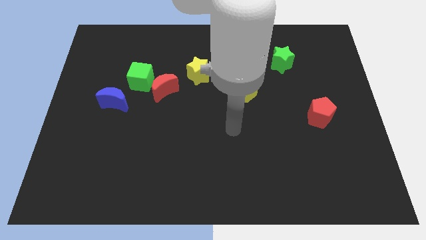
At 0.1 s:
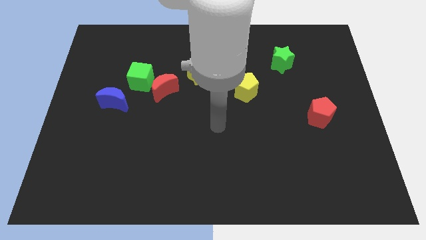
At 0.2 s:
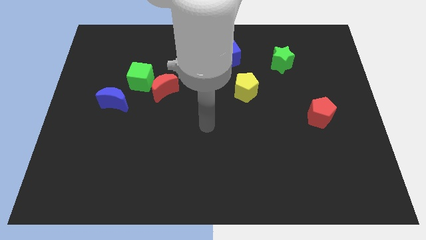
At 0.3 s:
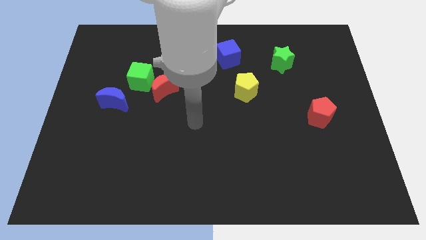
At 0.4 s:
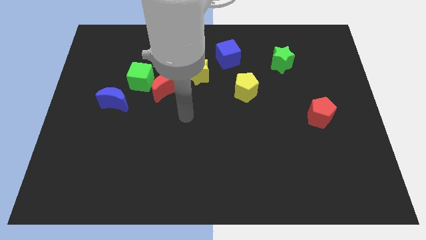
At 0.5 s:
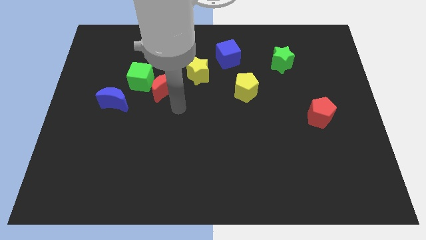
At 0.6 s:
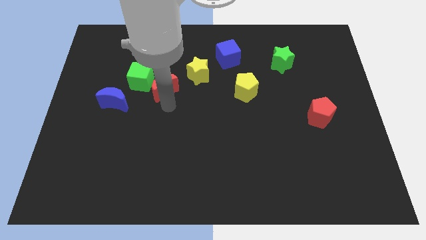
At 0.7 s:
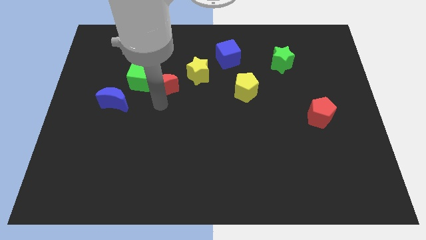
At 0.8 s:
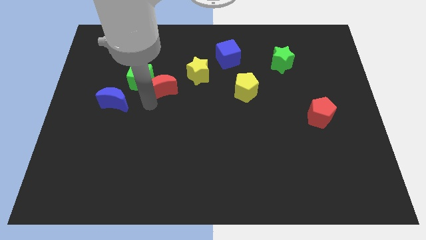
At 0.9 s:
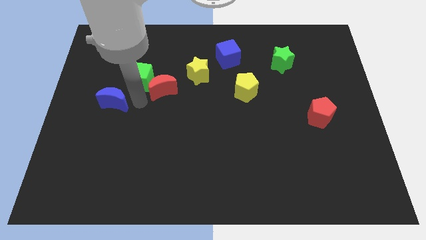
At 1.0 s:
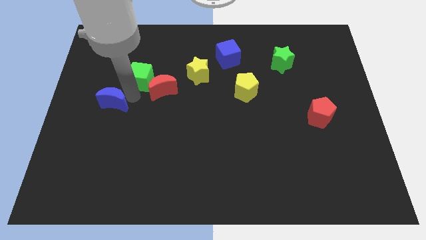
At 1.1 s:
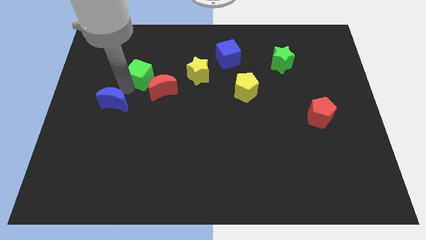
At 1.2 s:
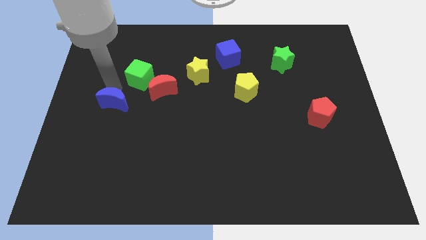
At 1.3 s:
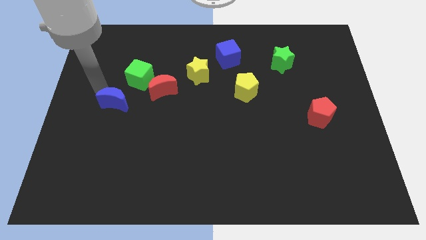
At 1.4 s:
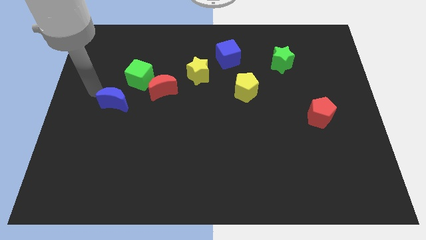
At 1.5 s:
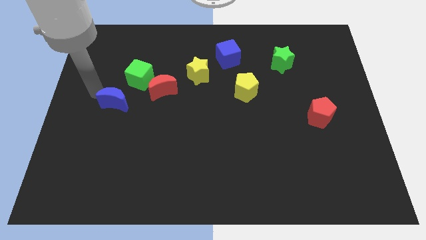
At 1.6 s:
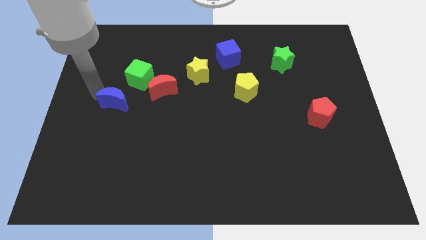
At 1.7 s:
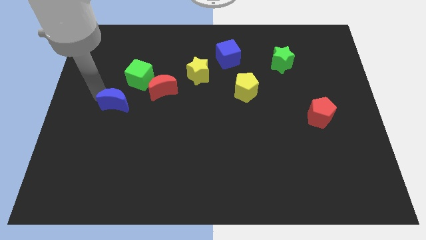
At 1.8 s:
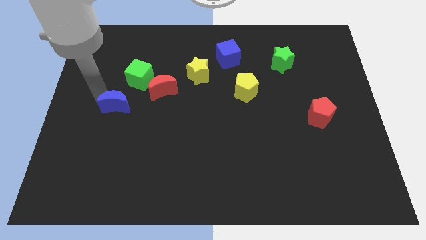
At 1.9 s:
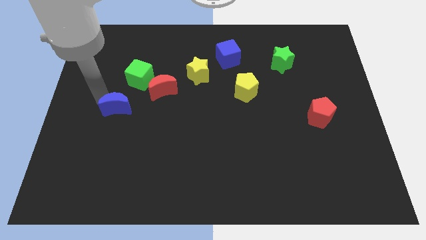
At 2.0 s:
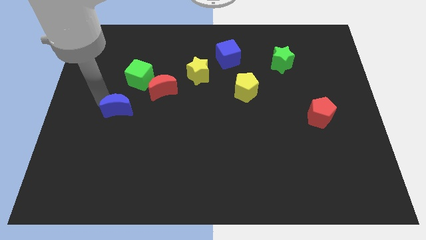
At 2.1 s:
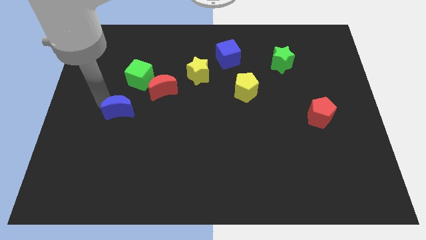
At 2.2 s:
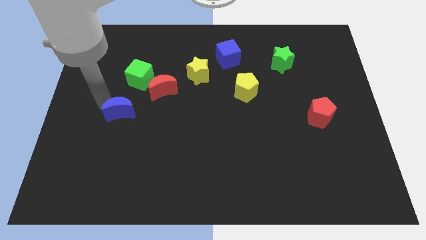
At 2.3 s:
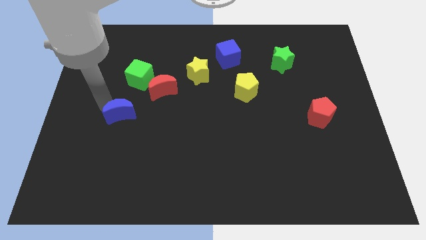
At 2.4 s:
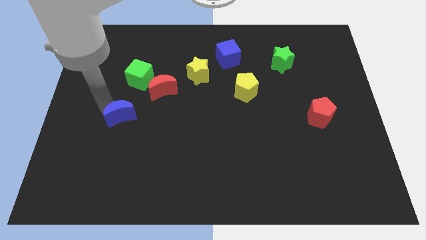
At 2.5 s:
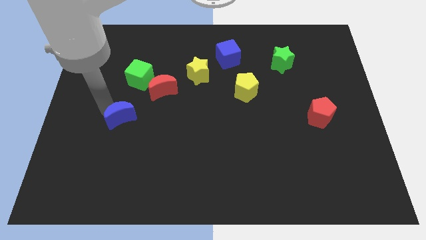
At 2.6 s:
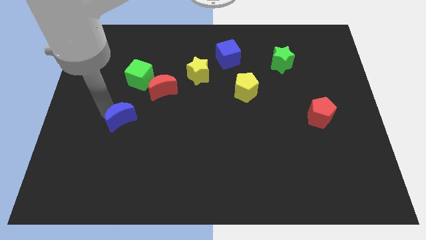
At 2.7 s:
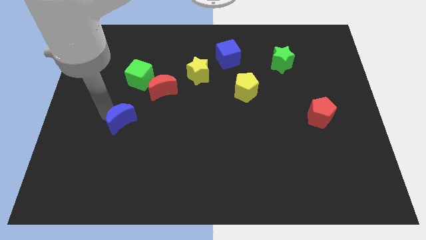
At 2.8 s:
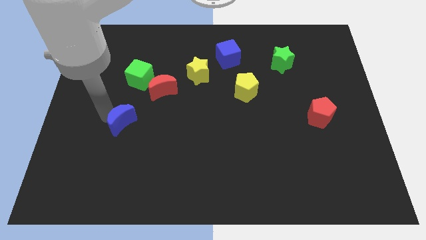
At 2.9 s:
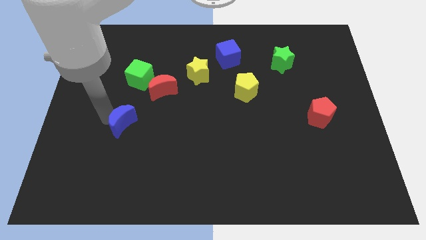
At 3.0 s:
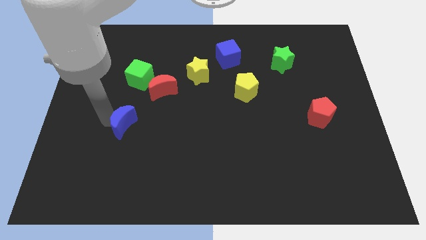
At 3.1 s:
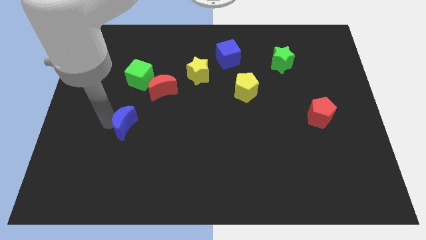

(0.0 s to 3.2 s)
move the blue moon a bit down and to the right

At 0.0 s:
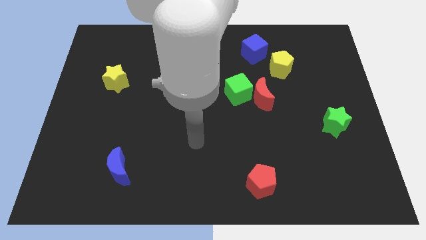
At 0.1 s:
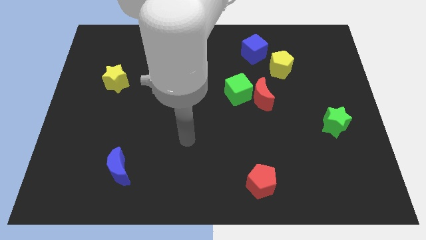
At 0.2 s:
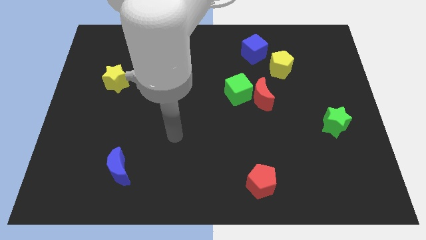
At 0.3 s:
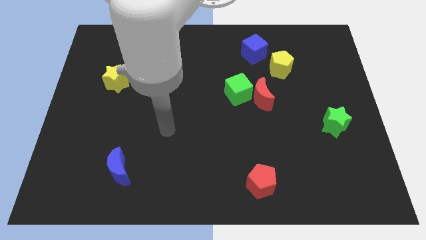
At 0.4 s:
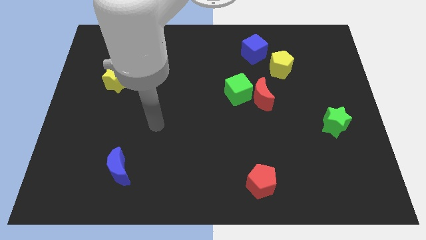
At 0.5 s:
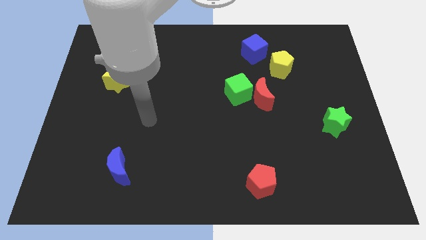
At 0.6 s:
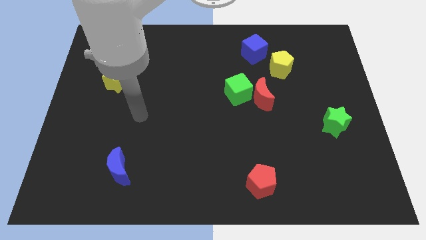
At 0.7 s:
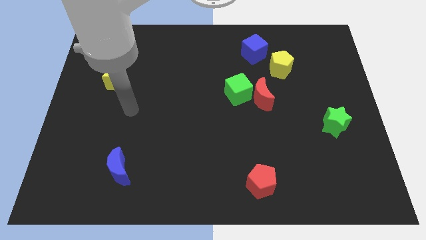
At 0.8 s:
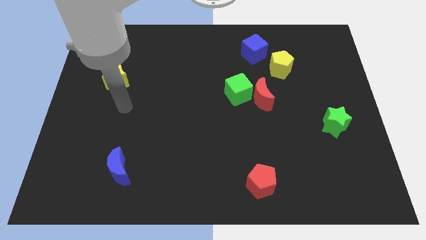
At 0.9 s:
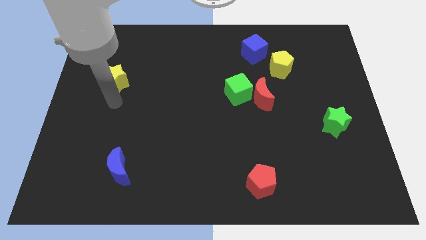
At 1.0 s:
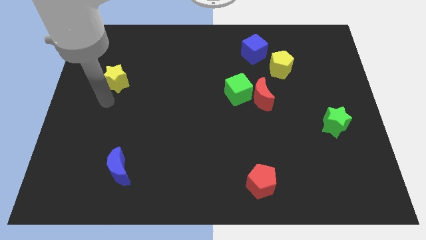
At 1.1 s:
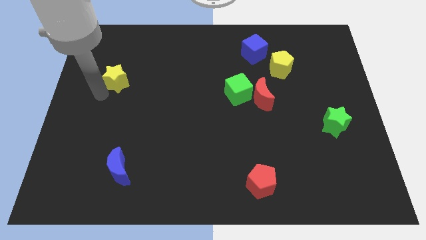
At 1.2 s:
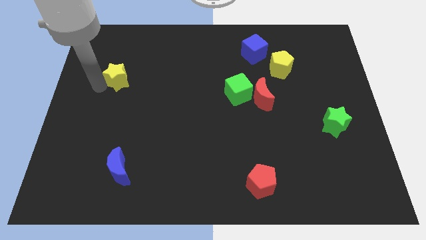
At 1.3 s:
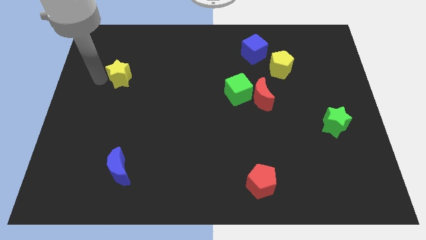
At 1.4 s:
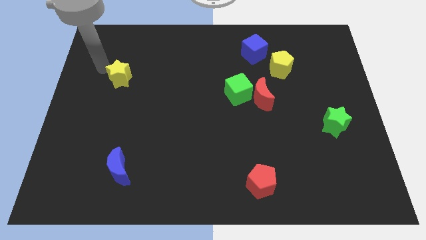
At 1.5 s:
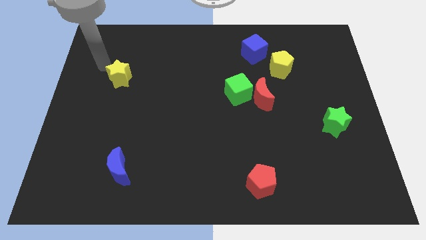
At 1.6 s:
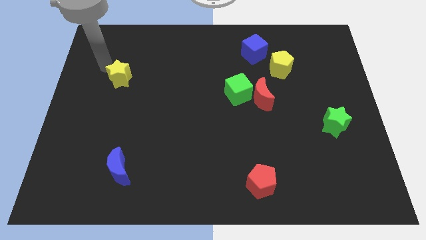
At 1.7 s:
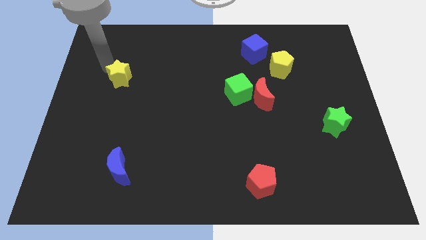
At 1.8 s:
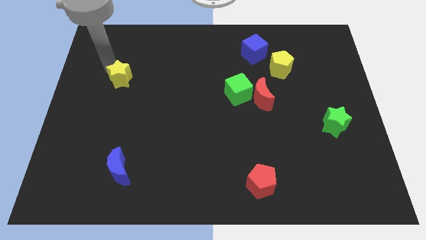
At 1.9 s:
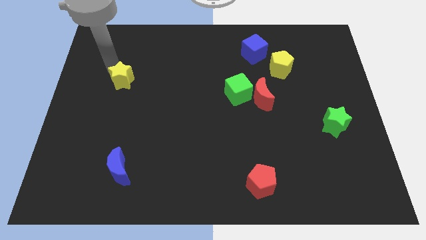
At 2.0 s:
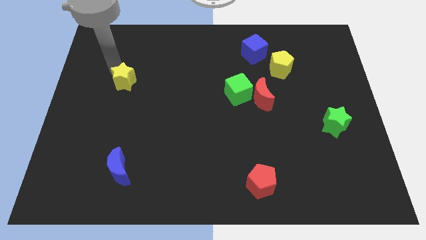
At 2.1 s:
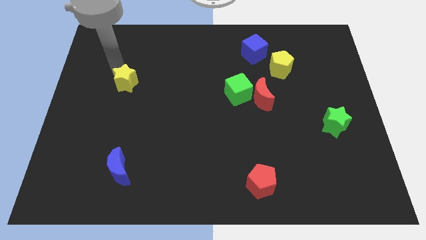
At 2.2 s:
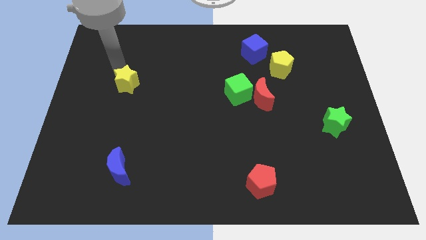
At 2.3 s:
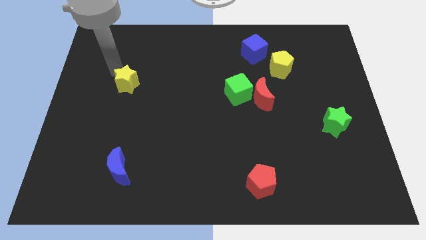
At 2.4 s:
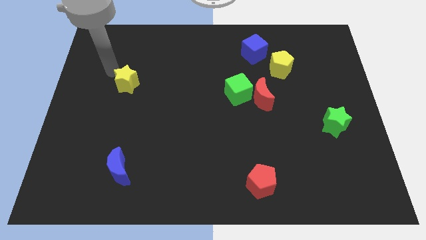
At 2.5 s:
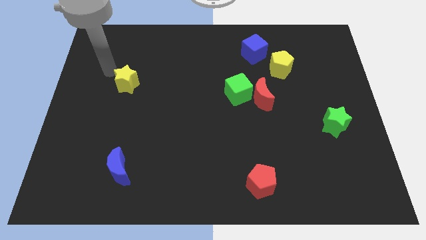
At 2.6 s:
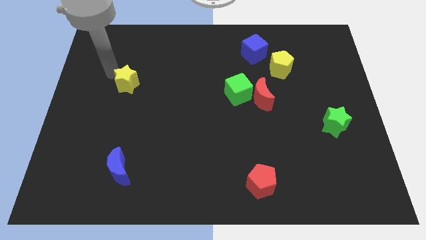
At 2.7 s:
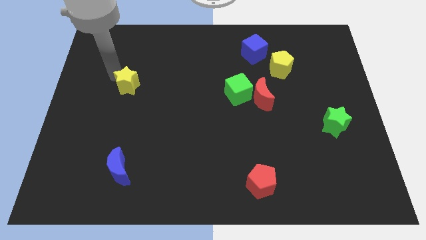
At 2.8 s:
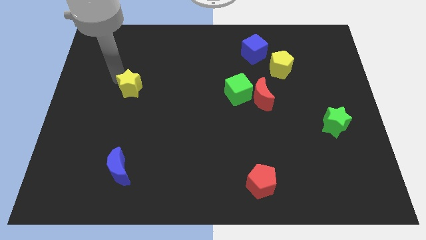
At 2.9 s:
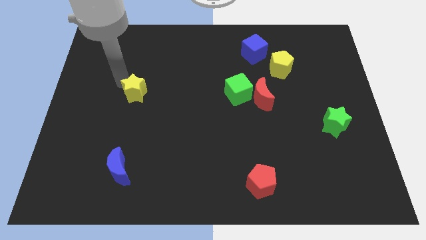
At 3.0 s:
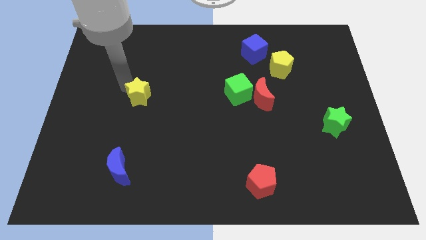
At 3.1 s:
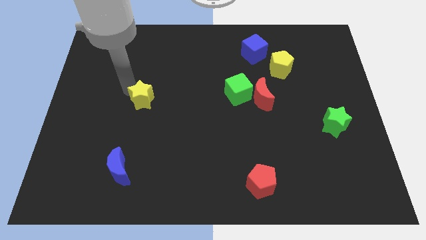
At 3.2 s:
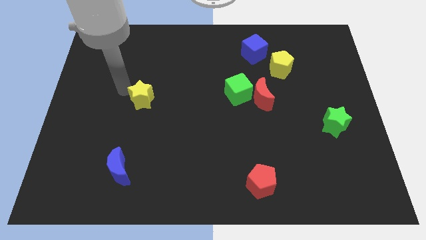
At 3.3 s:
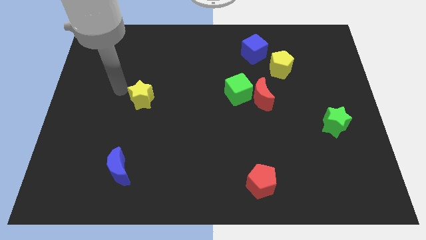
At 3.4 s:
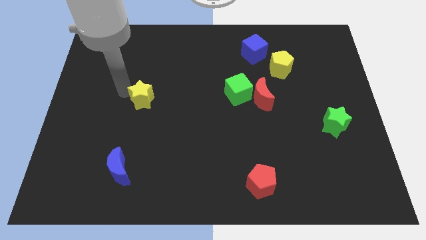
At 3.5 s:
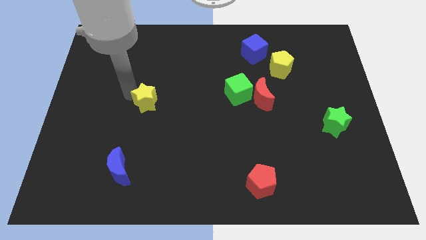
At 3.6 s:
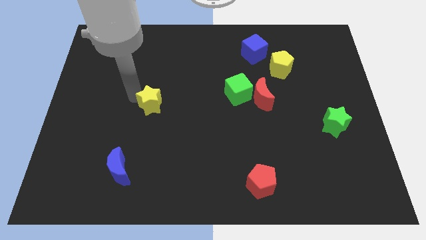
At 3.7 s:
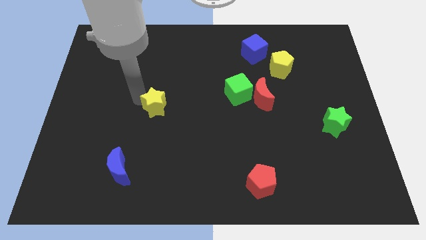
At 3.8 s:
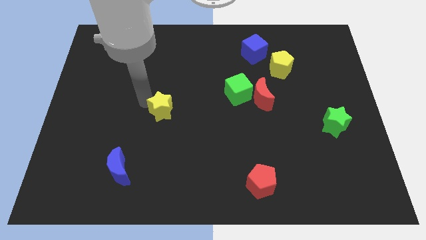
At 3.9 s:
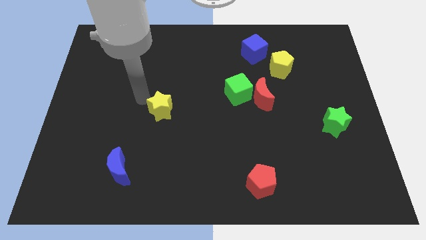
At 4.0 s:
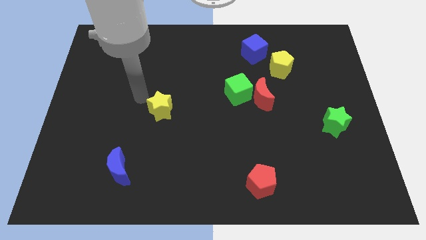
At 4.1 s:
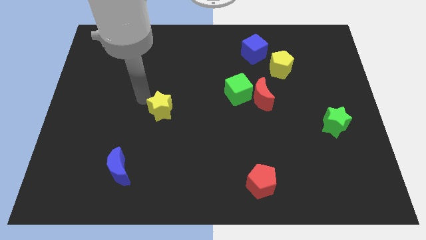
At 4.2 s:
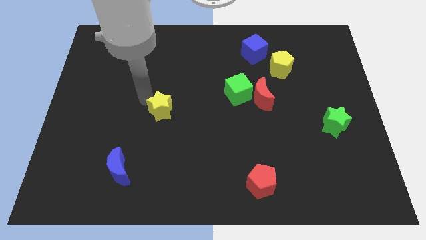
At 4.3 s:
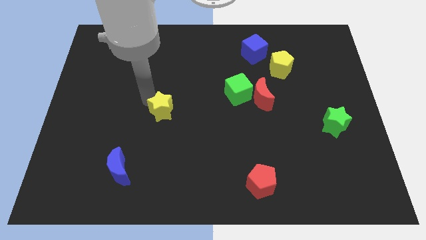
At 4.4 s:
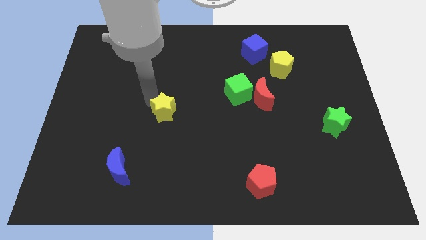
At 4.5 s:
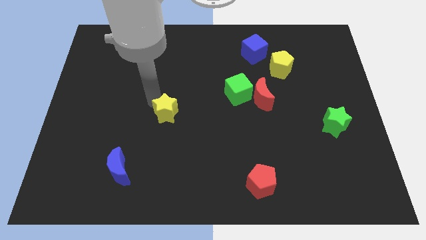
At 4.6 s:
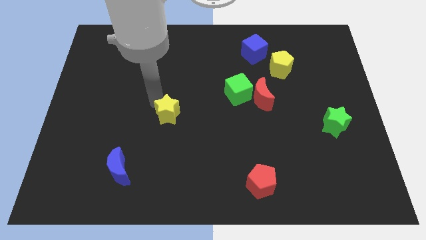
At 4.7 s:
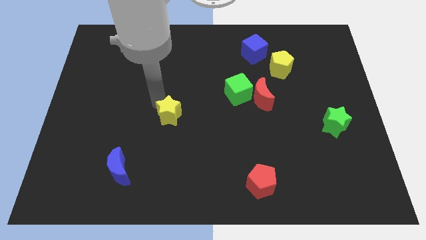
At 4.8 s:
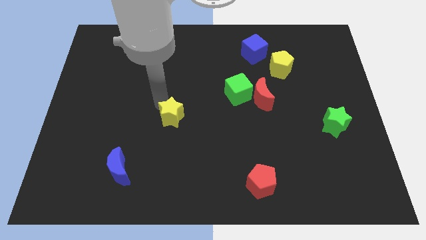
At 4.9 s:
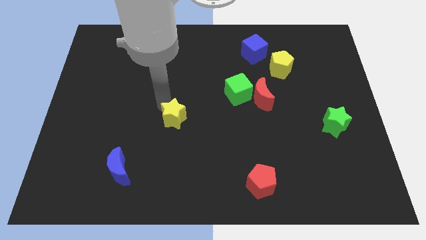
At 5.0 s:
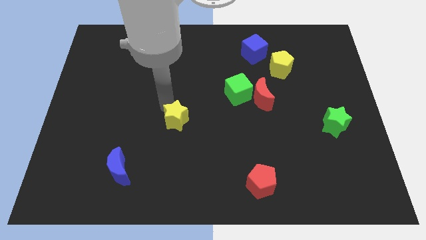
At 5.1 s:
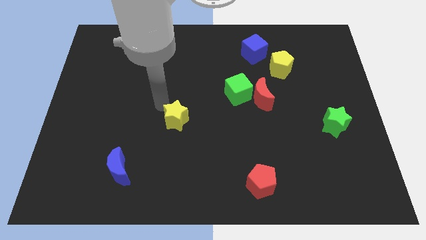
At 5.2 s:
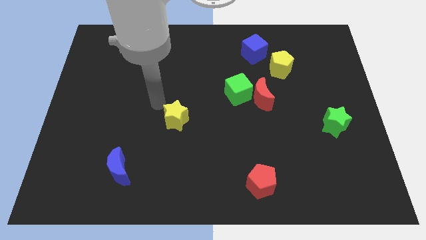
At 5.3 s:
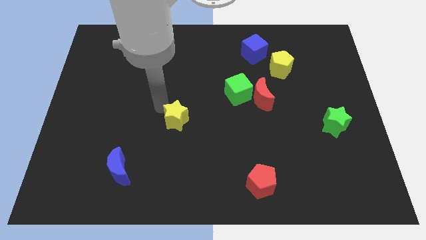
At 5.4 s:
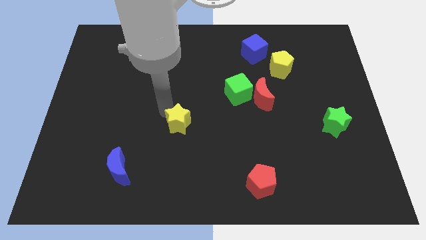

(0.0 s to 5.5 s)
move the yellow star downwards and then right
